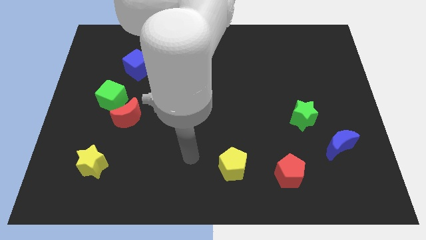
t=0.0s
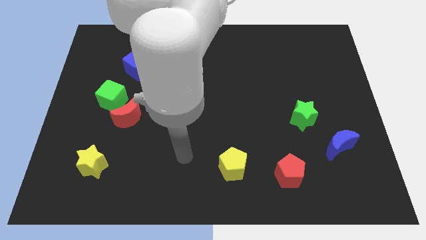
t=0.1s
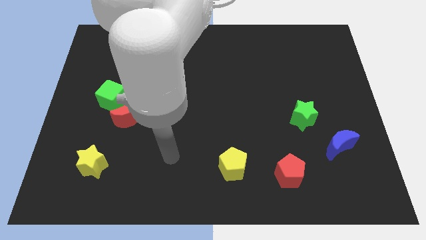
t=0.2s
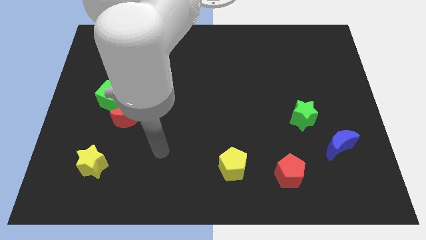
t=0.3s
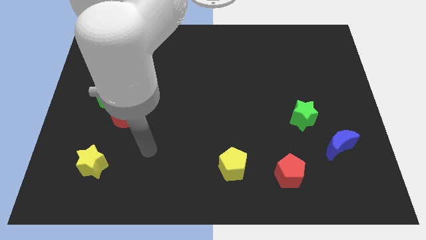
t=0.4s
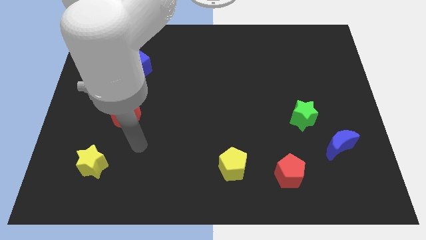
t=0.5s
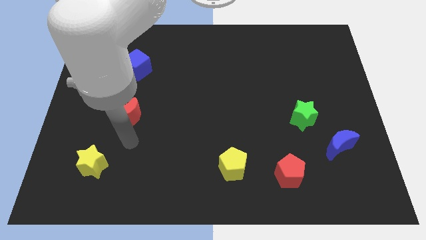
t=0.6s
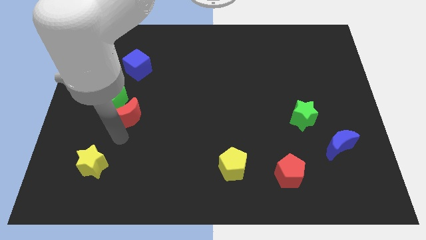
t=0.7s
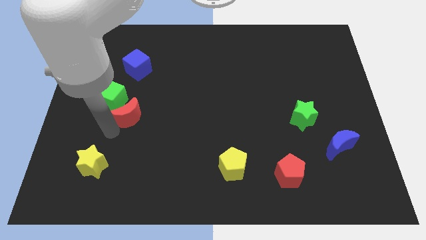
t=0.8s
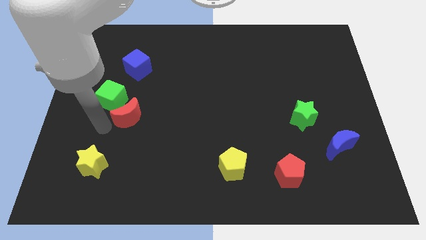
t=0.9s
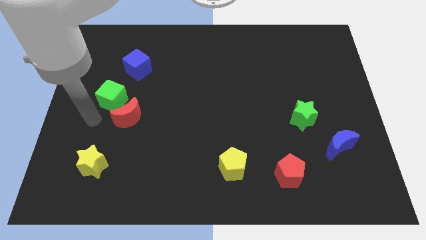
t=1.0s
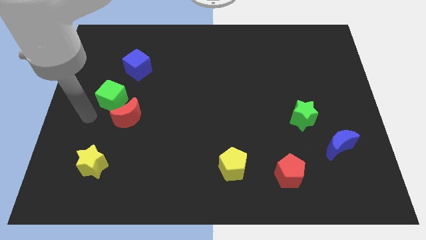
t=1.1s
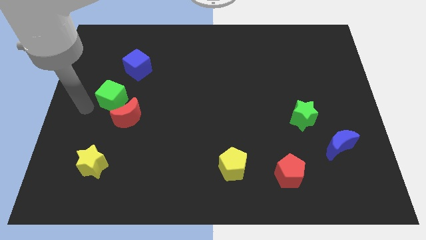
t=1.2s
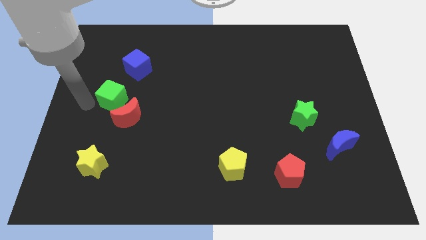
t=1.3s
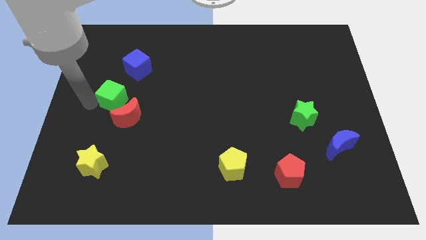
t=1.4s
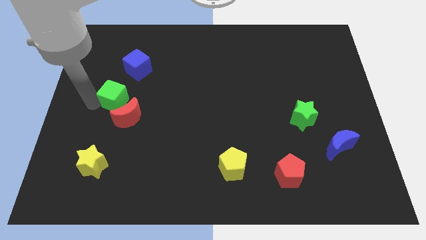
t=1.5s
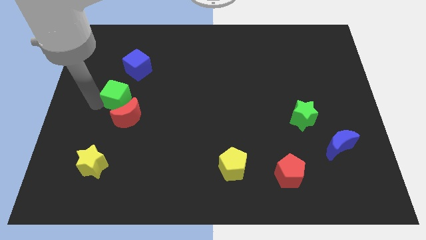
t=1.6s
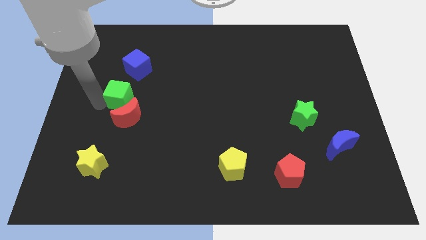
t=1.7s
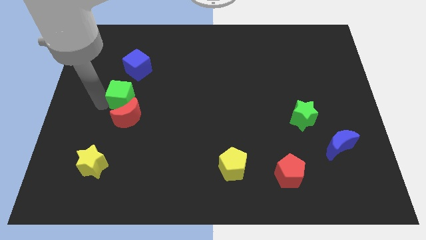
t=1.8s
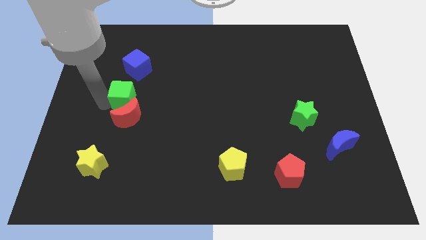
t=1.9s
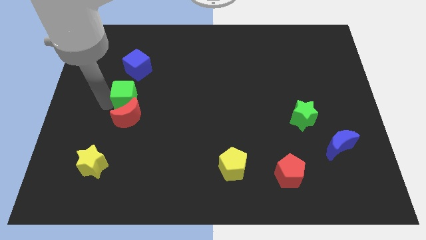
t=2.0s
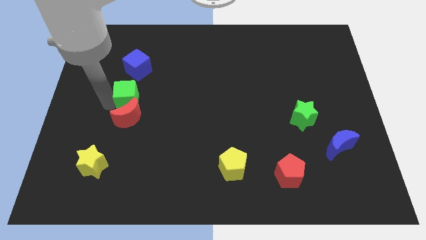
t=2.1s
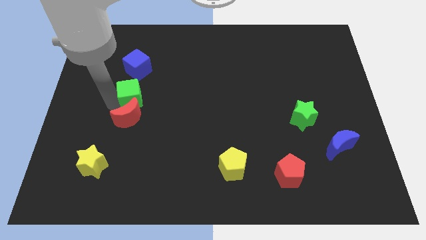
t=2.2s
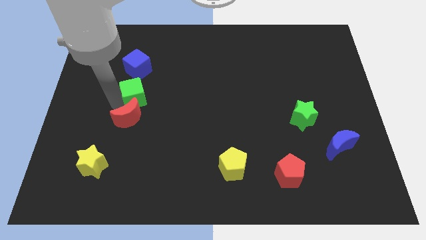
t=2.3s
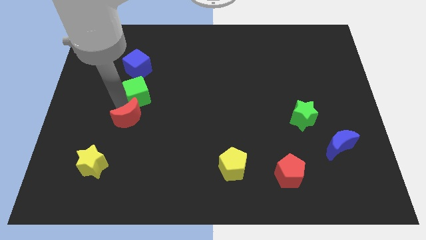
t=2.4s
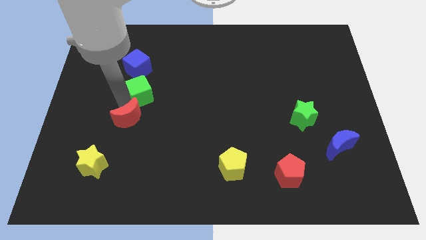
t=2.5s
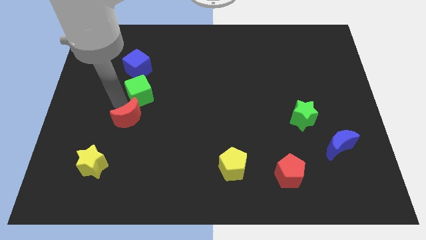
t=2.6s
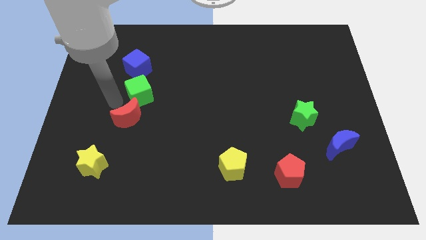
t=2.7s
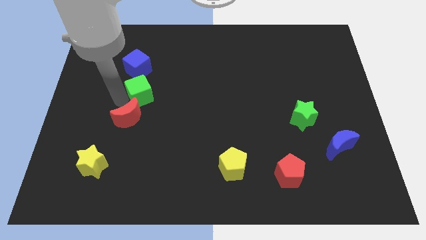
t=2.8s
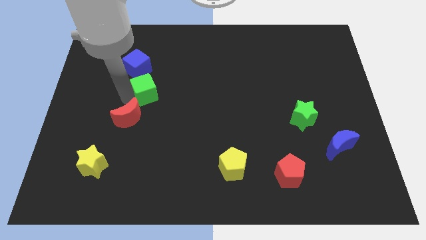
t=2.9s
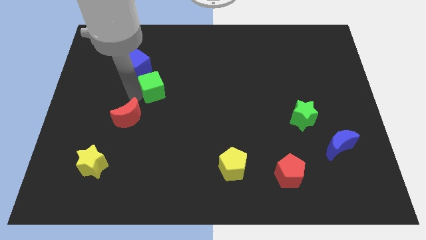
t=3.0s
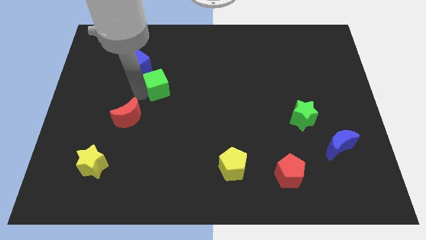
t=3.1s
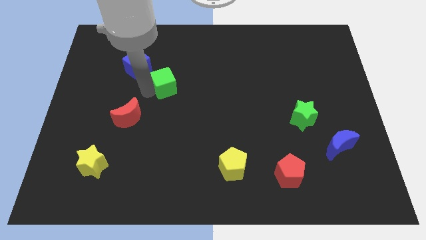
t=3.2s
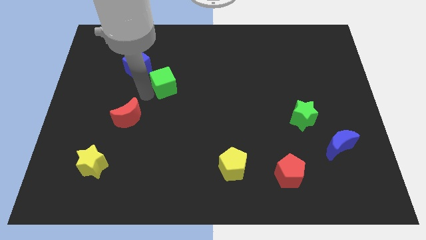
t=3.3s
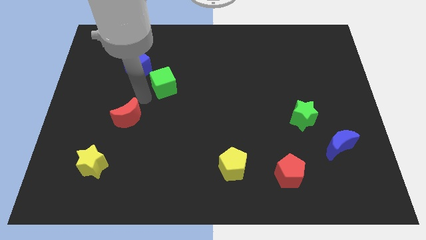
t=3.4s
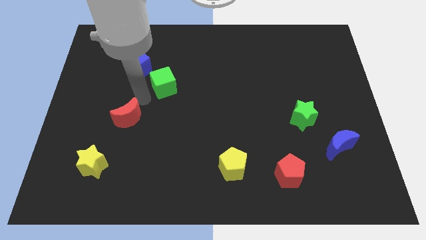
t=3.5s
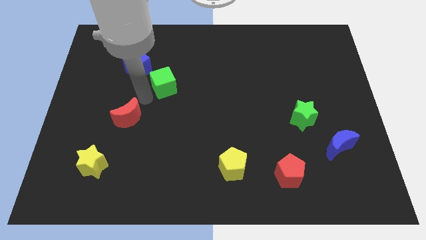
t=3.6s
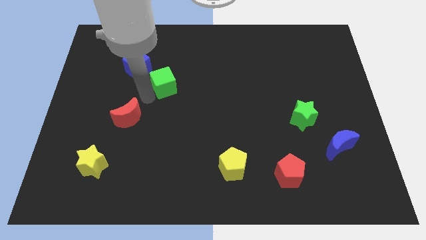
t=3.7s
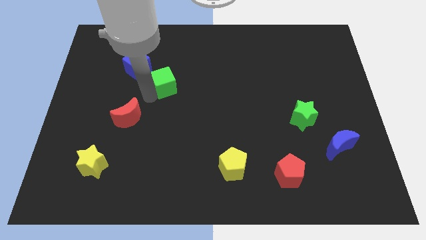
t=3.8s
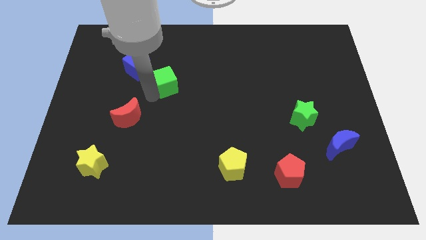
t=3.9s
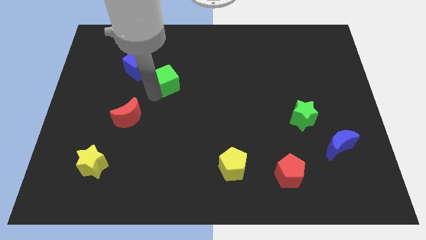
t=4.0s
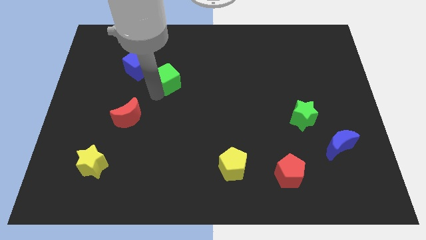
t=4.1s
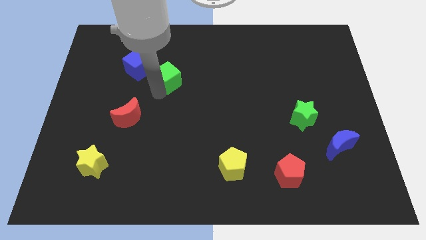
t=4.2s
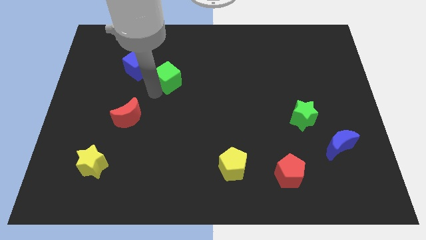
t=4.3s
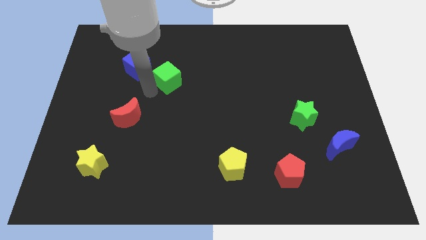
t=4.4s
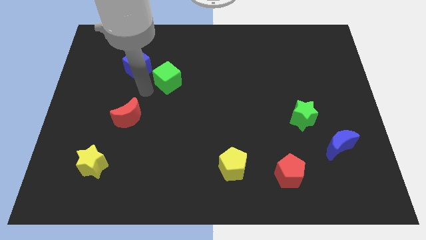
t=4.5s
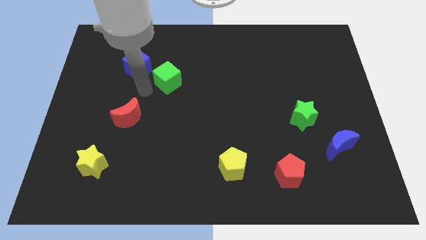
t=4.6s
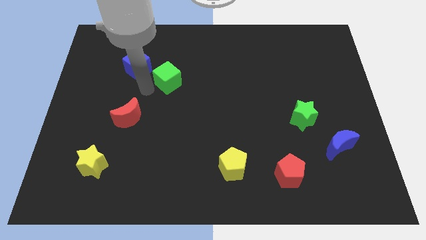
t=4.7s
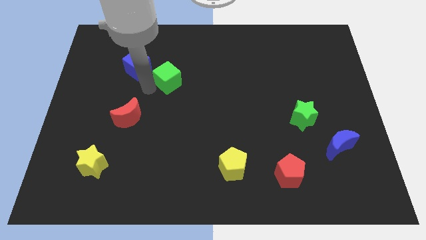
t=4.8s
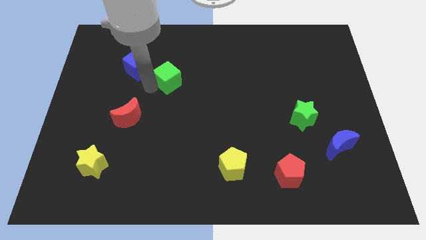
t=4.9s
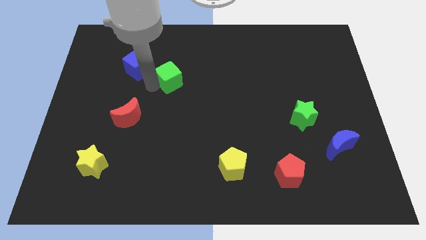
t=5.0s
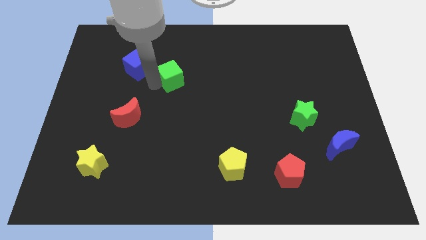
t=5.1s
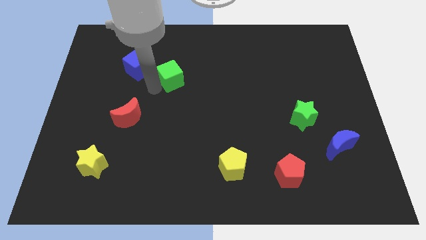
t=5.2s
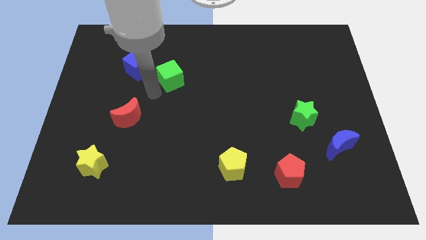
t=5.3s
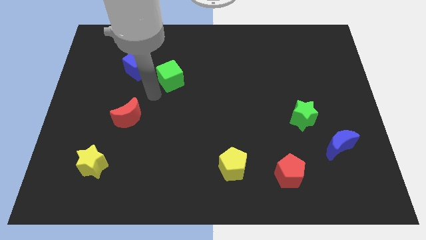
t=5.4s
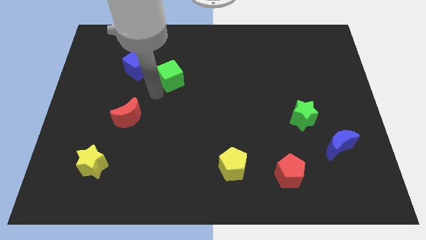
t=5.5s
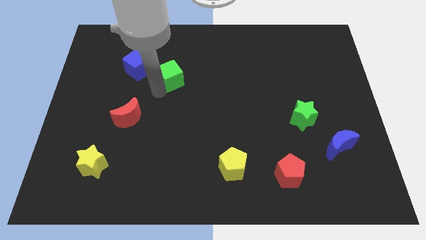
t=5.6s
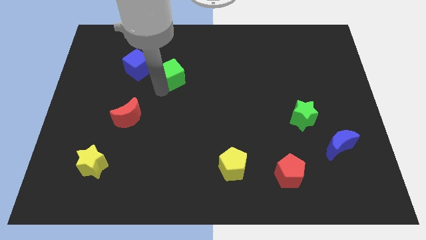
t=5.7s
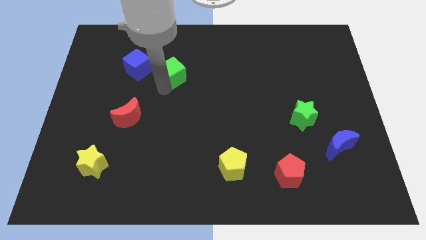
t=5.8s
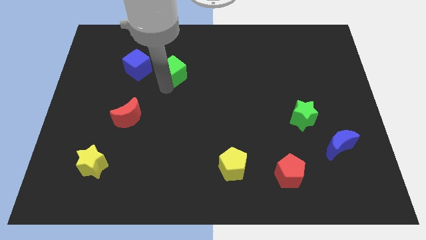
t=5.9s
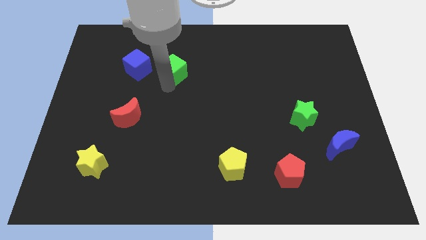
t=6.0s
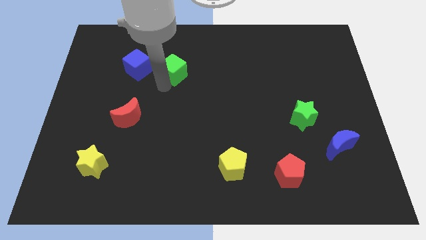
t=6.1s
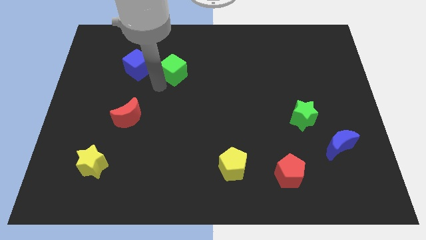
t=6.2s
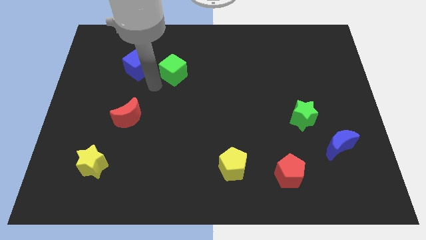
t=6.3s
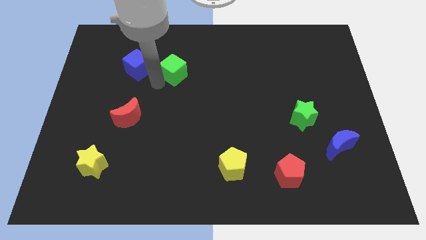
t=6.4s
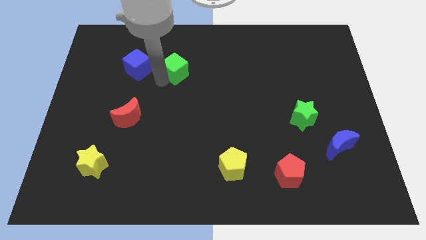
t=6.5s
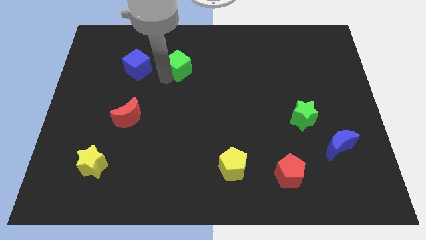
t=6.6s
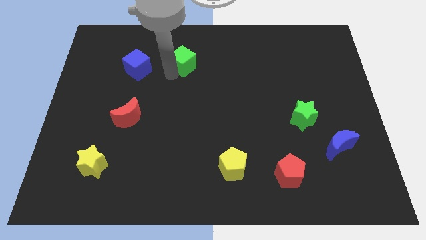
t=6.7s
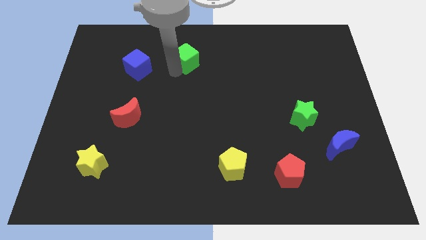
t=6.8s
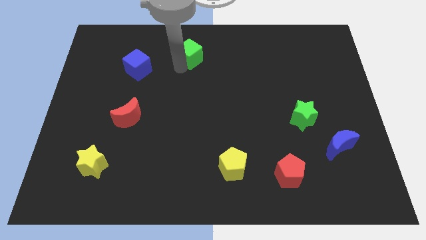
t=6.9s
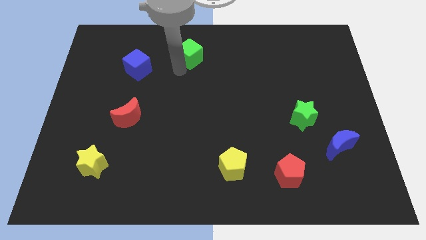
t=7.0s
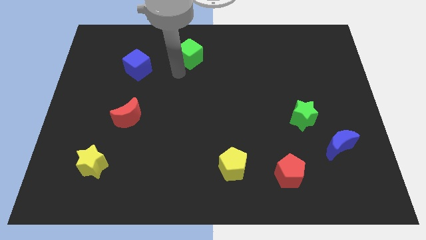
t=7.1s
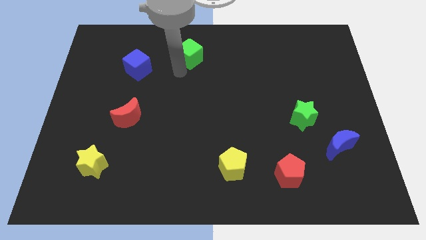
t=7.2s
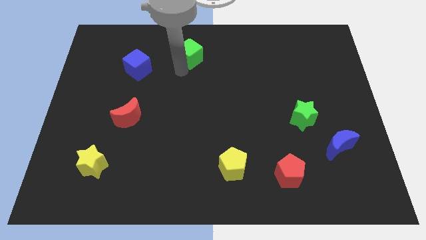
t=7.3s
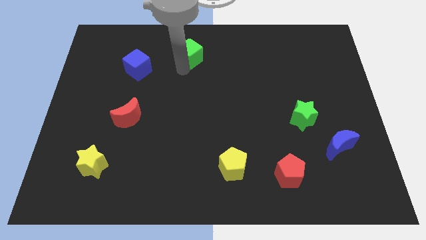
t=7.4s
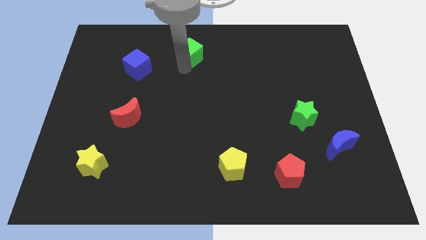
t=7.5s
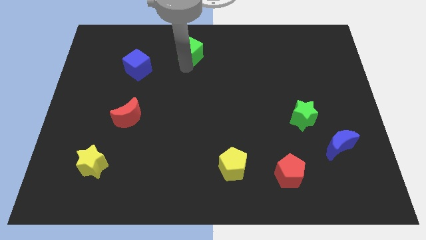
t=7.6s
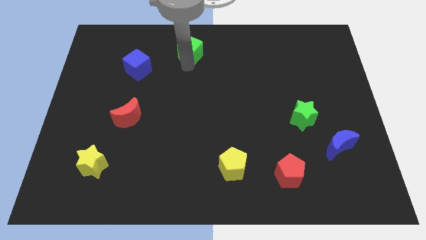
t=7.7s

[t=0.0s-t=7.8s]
slide the green cube to the top side
